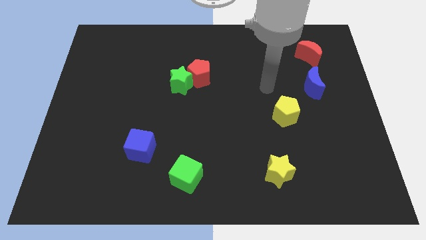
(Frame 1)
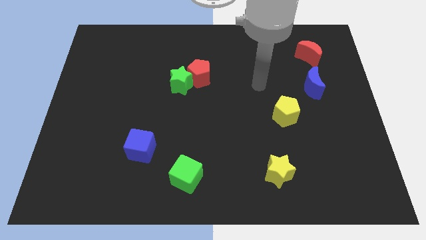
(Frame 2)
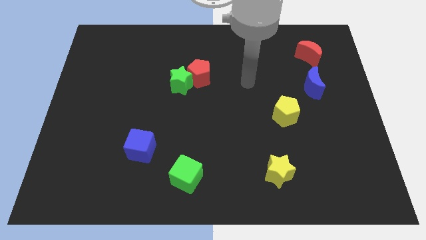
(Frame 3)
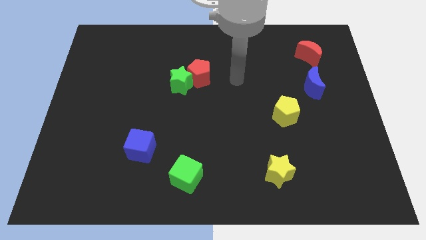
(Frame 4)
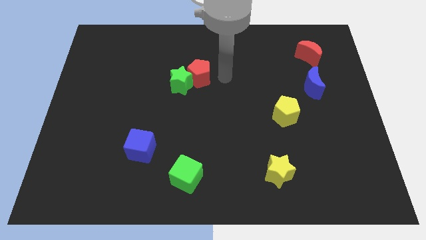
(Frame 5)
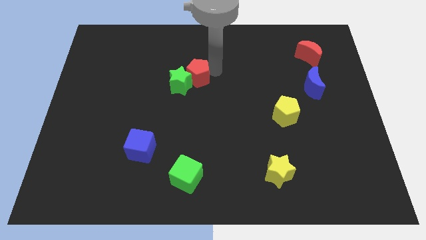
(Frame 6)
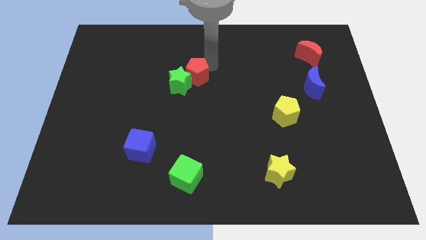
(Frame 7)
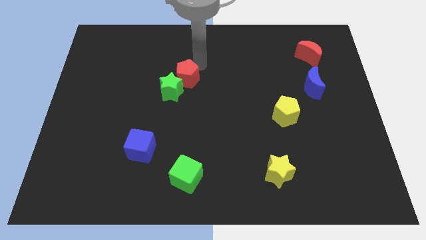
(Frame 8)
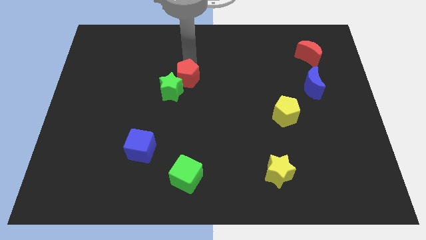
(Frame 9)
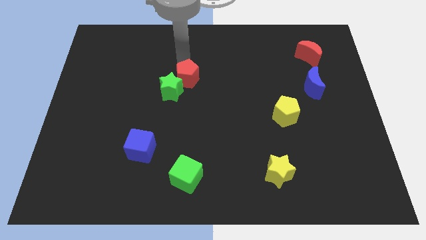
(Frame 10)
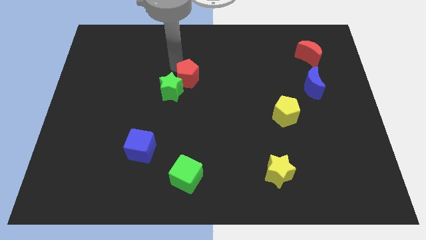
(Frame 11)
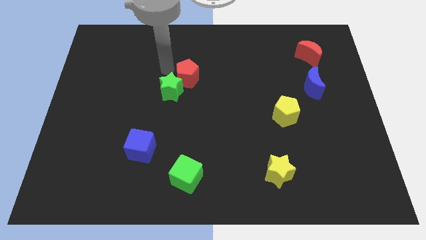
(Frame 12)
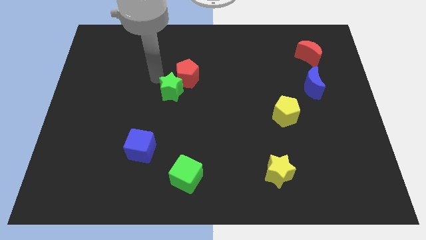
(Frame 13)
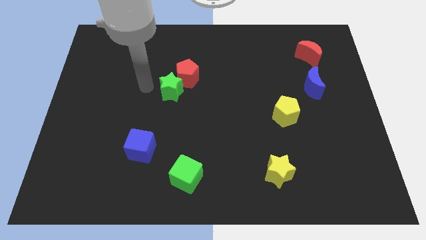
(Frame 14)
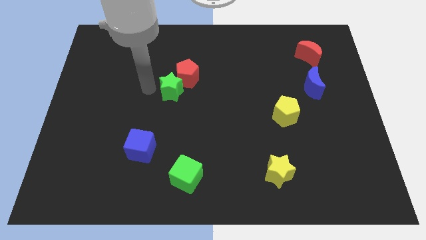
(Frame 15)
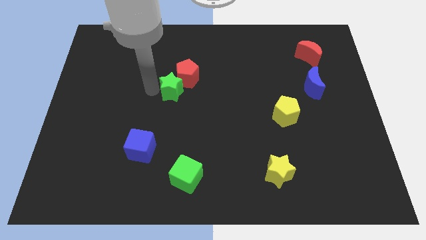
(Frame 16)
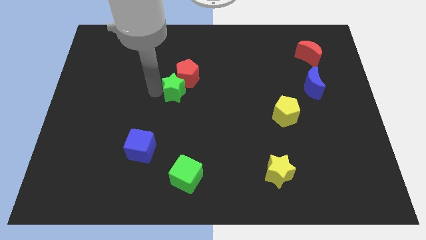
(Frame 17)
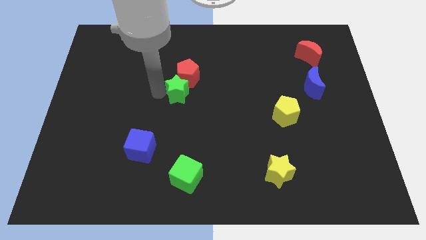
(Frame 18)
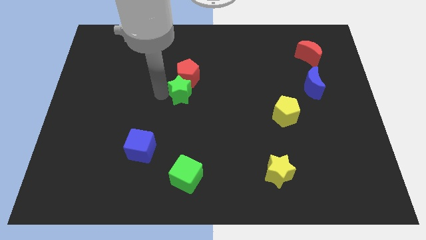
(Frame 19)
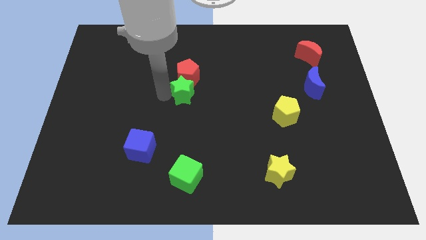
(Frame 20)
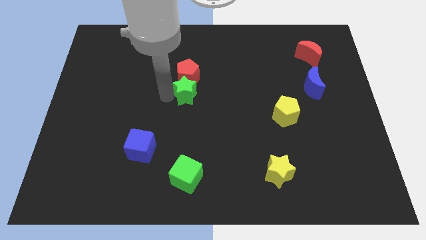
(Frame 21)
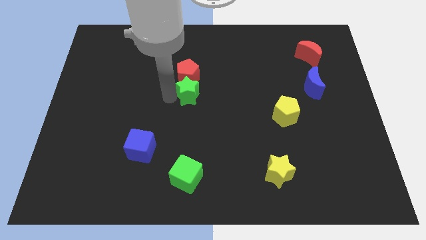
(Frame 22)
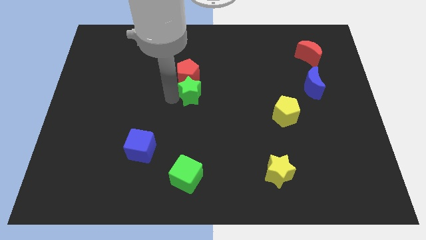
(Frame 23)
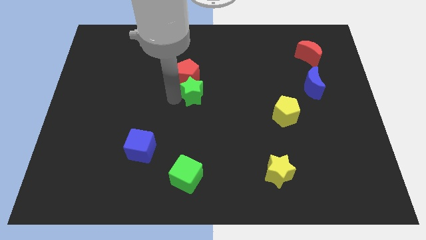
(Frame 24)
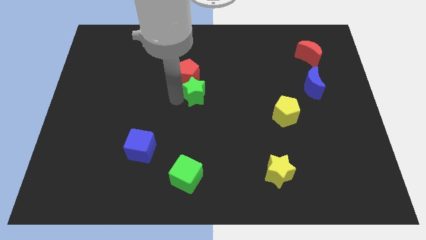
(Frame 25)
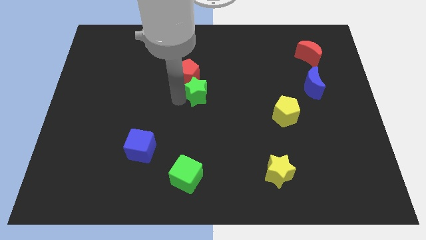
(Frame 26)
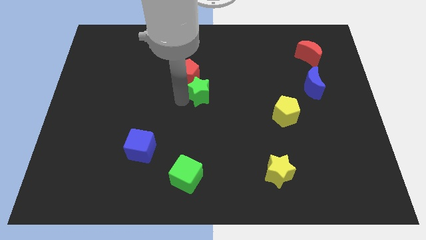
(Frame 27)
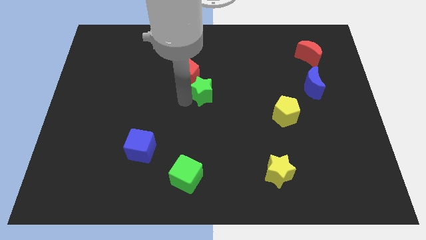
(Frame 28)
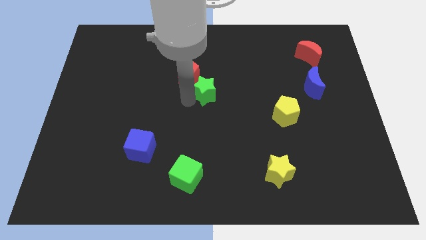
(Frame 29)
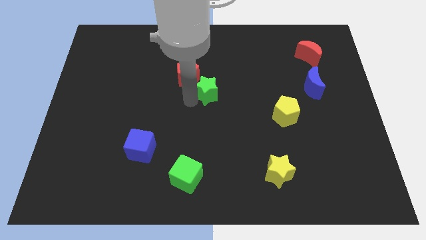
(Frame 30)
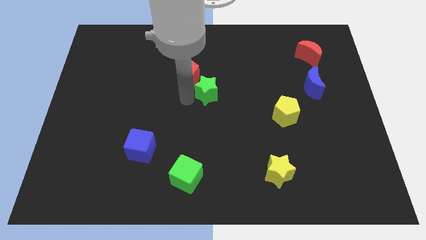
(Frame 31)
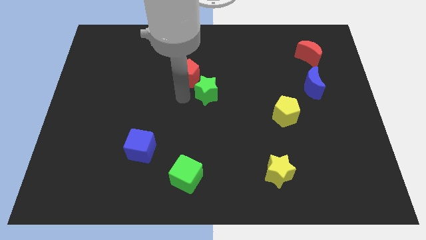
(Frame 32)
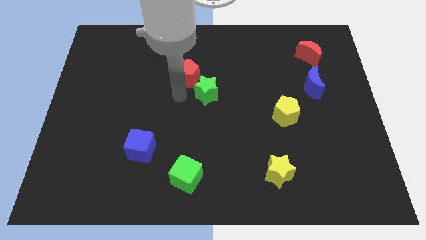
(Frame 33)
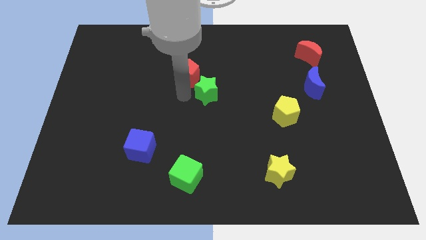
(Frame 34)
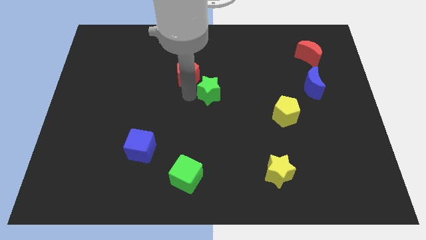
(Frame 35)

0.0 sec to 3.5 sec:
slightly move the green star right

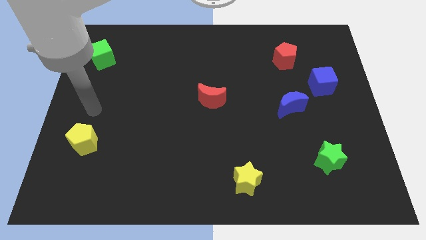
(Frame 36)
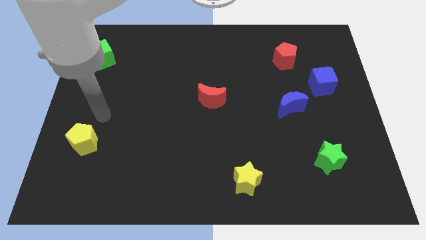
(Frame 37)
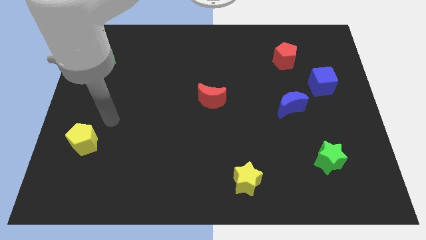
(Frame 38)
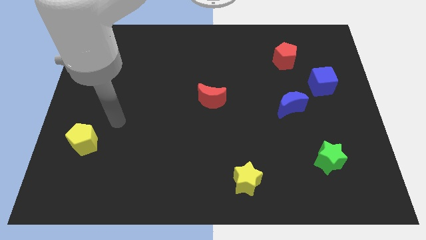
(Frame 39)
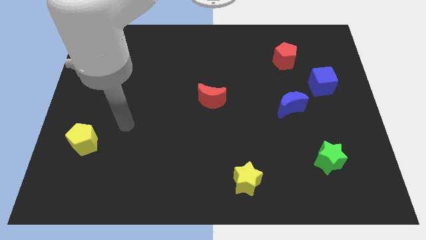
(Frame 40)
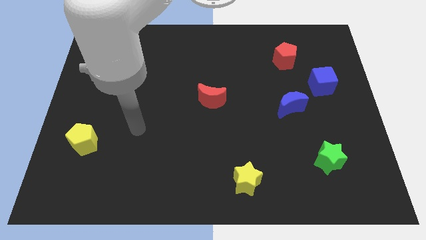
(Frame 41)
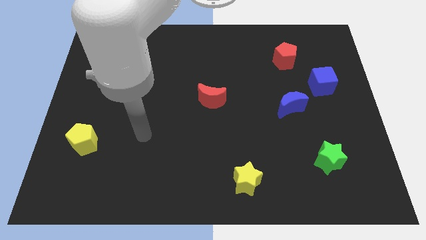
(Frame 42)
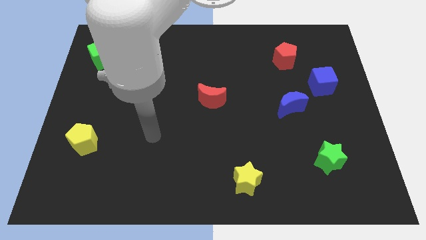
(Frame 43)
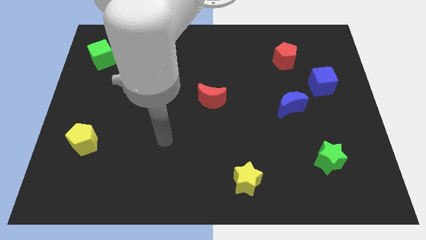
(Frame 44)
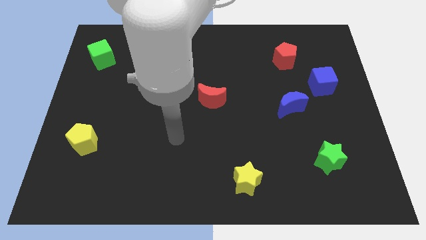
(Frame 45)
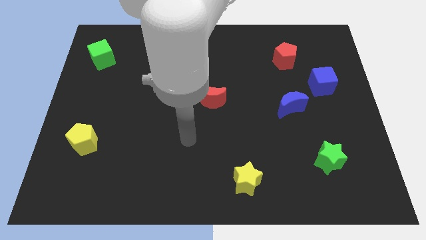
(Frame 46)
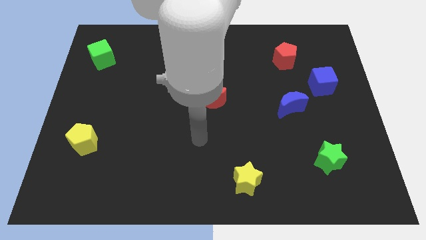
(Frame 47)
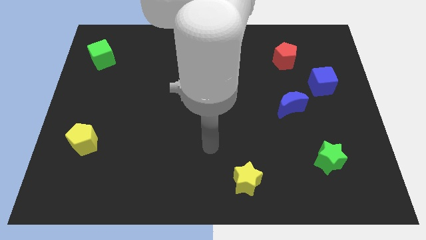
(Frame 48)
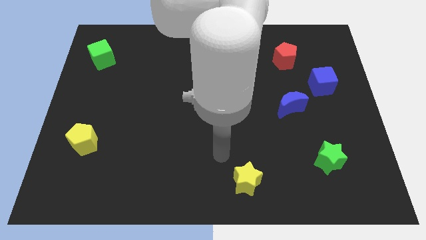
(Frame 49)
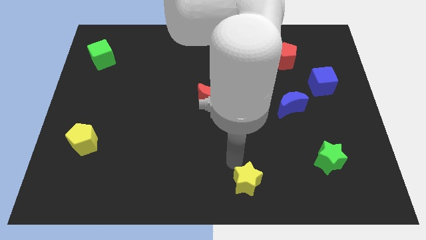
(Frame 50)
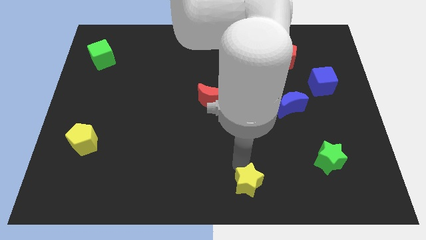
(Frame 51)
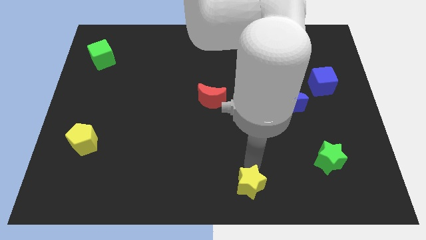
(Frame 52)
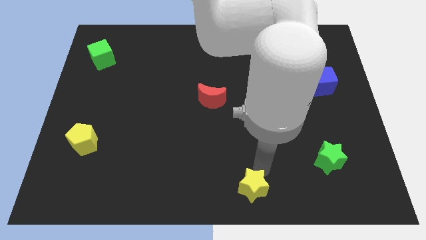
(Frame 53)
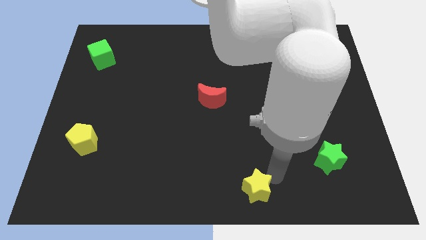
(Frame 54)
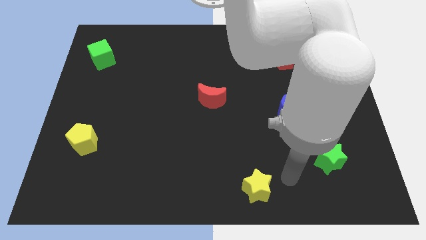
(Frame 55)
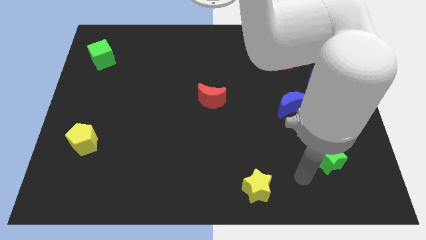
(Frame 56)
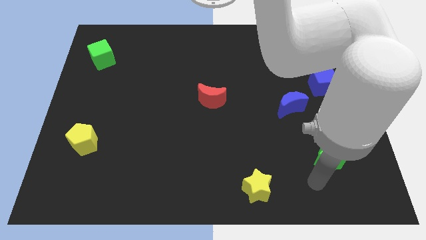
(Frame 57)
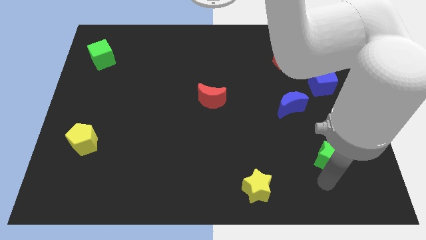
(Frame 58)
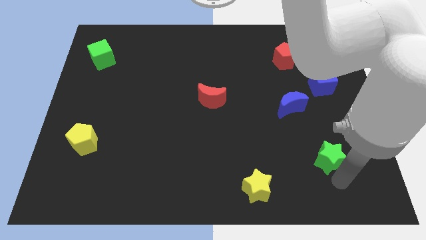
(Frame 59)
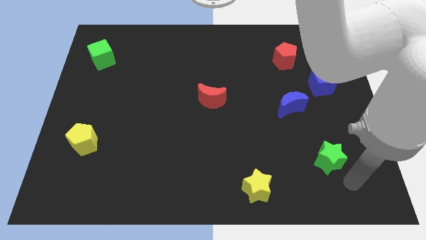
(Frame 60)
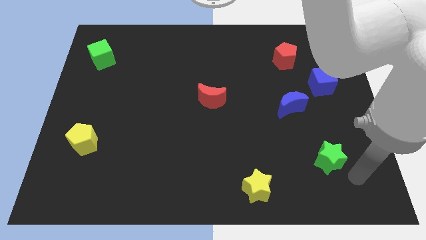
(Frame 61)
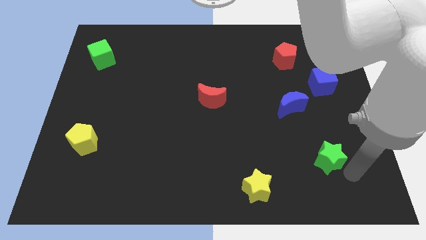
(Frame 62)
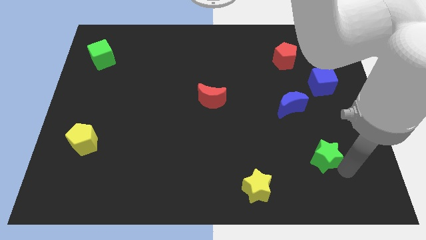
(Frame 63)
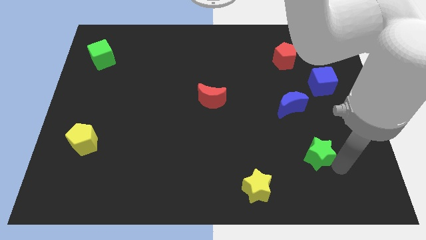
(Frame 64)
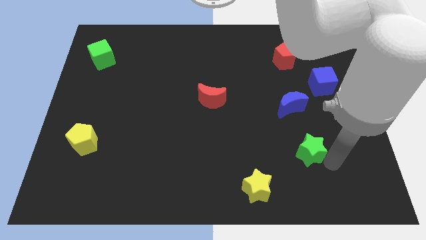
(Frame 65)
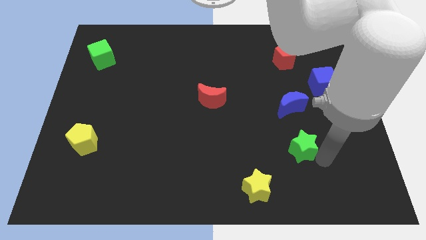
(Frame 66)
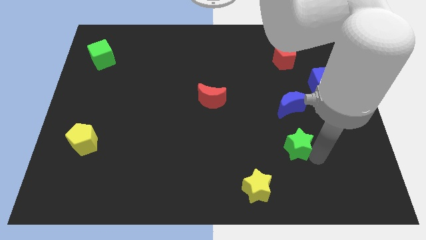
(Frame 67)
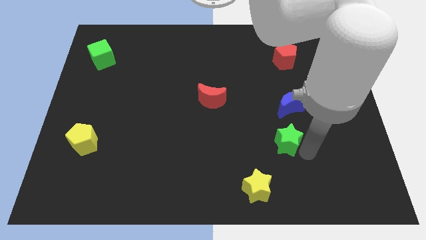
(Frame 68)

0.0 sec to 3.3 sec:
push the green star a little upwards and then left

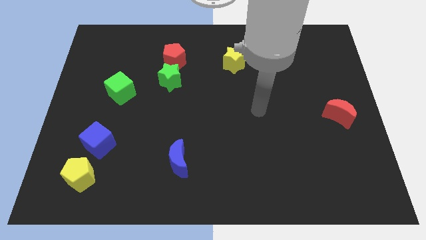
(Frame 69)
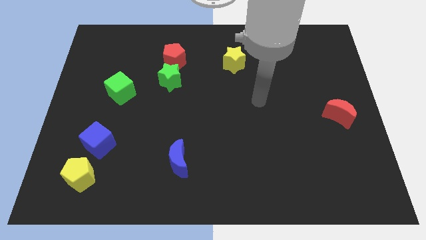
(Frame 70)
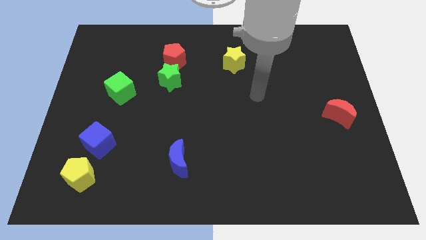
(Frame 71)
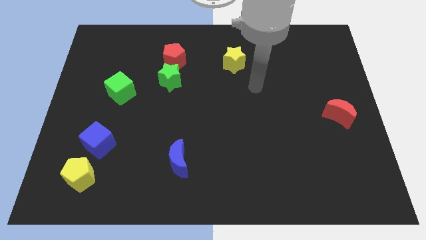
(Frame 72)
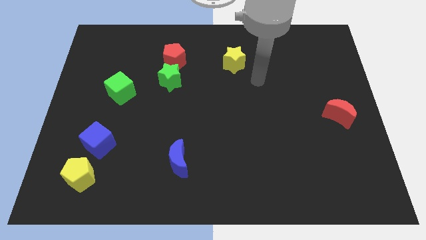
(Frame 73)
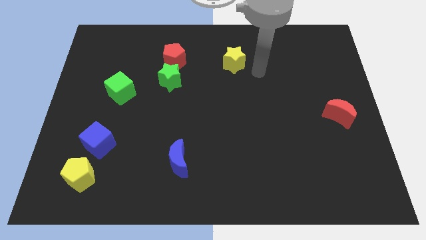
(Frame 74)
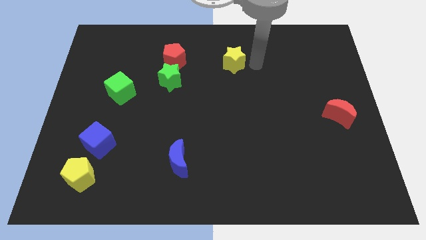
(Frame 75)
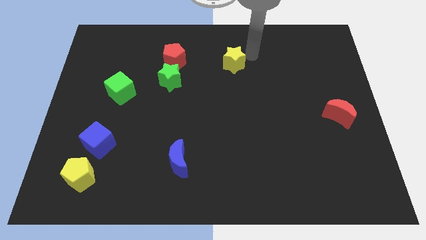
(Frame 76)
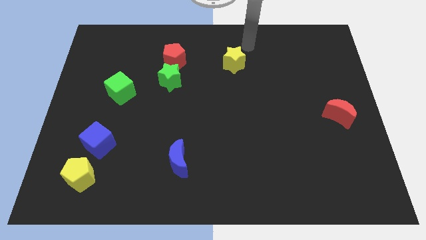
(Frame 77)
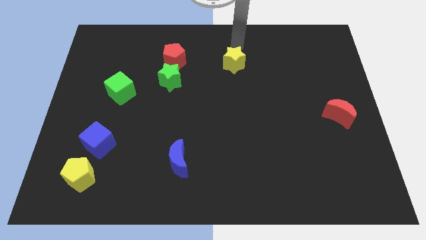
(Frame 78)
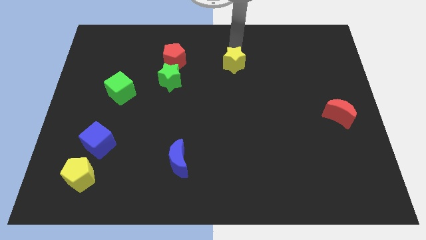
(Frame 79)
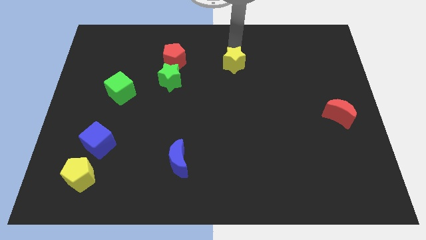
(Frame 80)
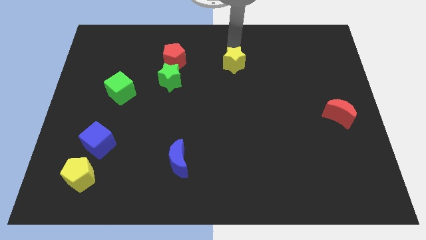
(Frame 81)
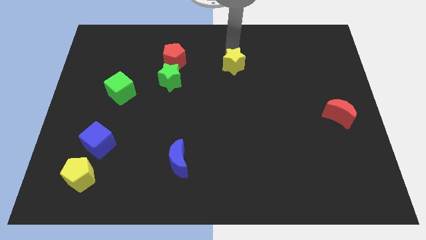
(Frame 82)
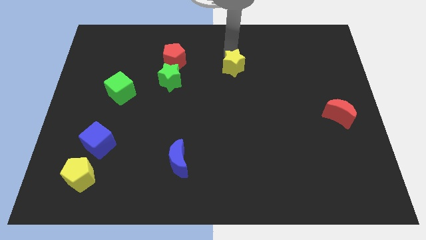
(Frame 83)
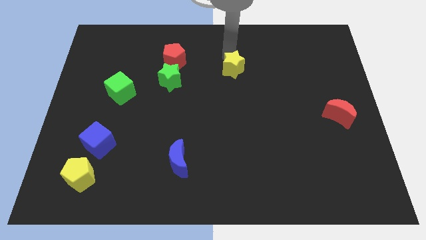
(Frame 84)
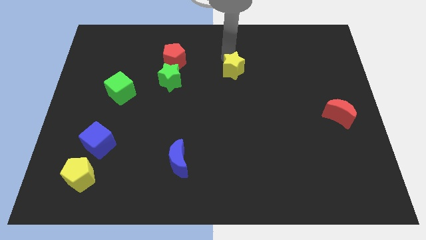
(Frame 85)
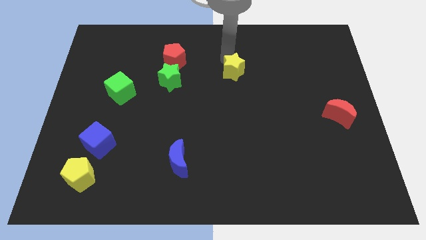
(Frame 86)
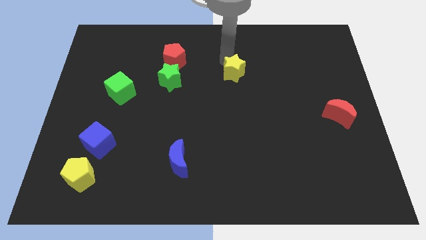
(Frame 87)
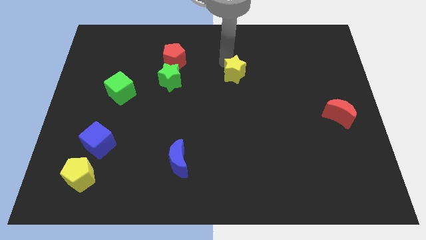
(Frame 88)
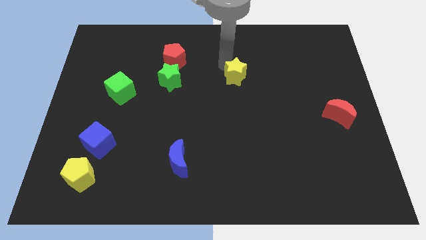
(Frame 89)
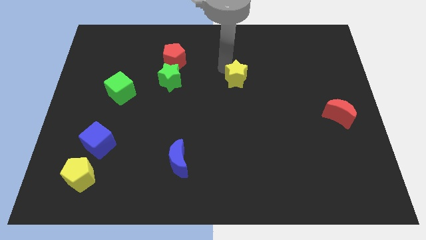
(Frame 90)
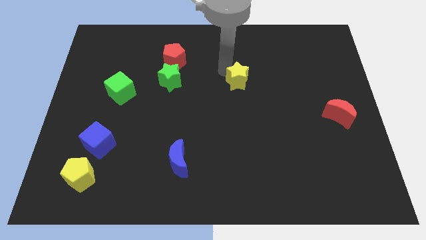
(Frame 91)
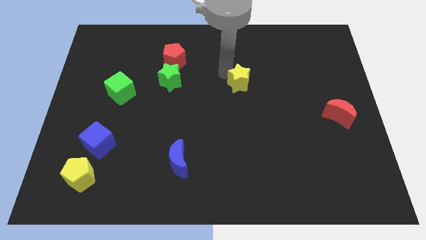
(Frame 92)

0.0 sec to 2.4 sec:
slightly push the yellow star downwards
